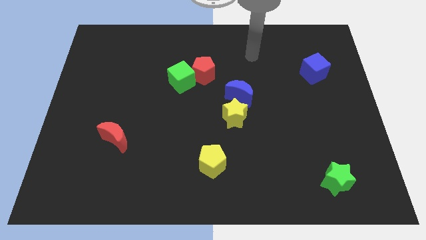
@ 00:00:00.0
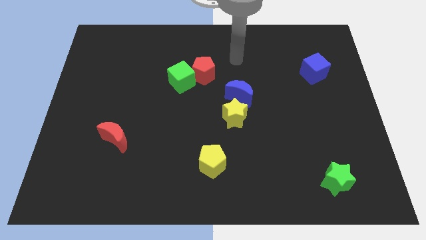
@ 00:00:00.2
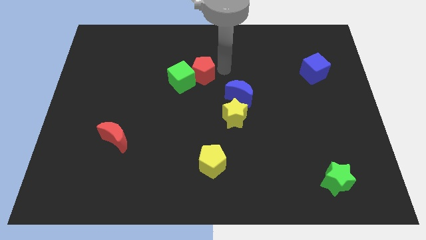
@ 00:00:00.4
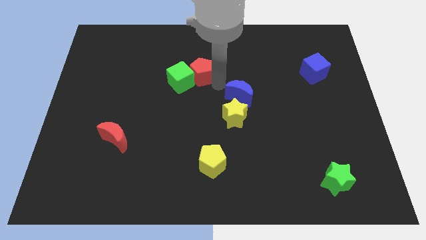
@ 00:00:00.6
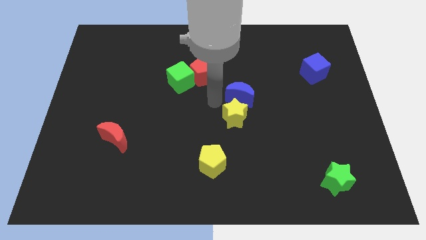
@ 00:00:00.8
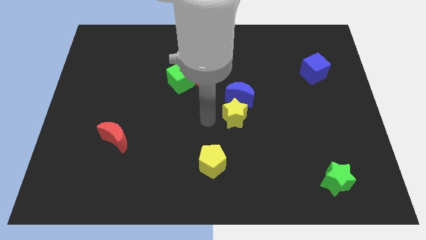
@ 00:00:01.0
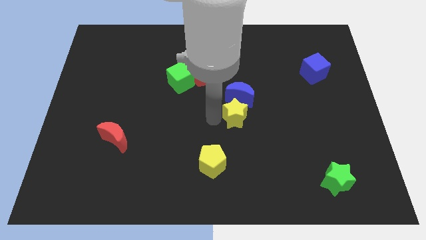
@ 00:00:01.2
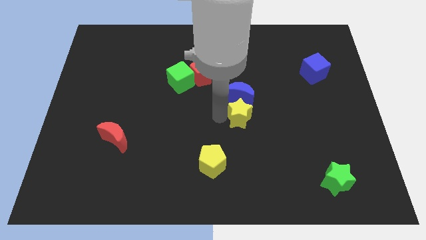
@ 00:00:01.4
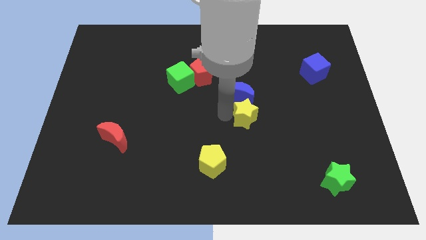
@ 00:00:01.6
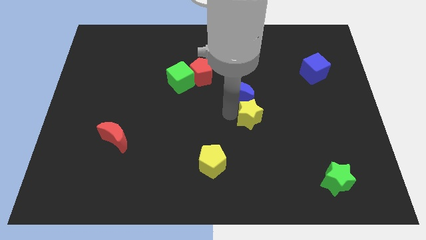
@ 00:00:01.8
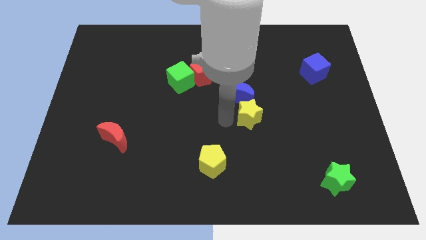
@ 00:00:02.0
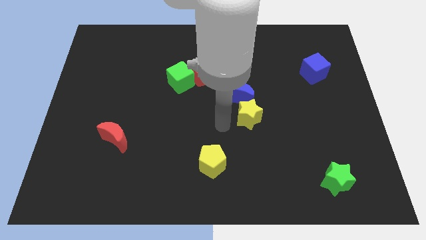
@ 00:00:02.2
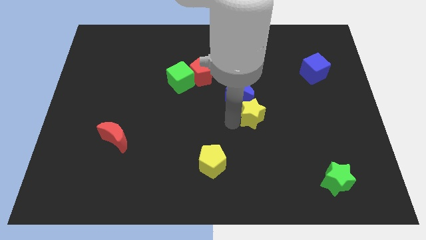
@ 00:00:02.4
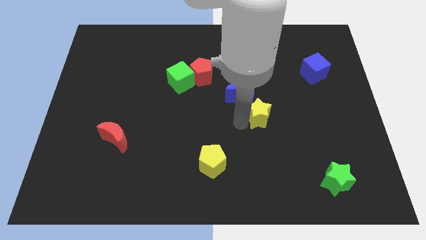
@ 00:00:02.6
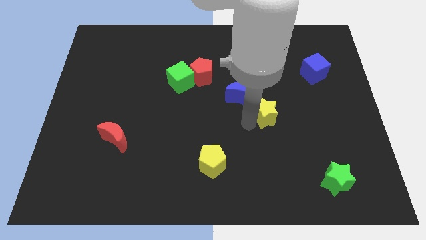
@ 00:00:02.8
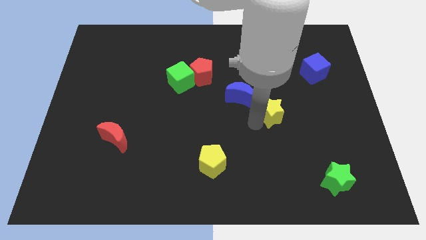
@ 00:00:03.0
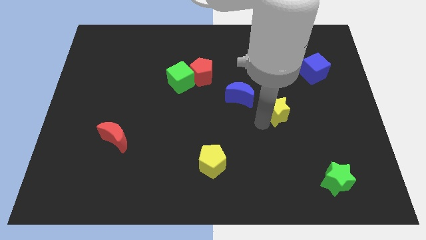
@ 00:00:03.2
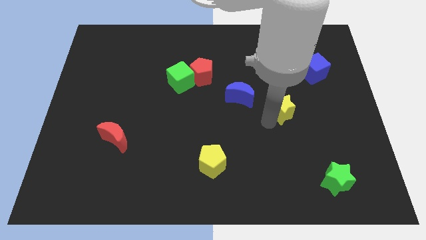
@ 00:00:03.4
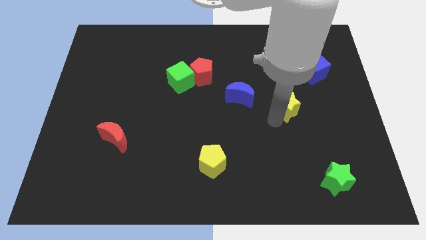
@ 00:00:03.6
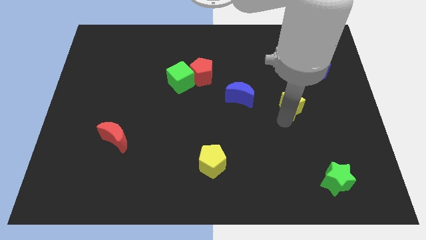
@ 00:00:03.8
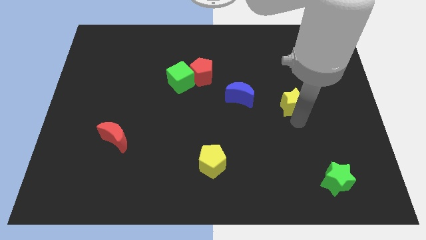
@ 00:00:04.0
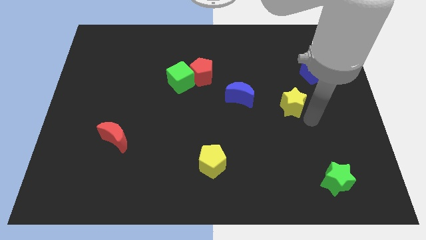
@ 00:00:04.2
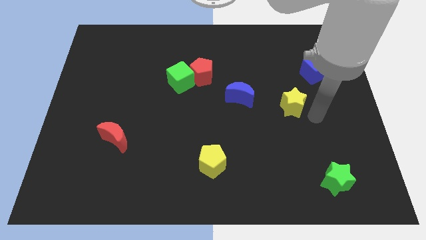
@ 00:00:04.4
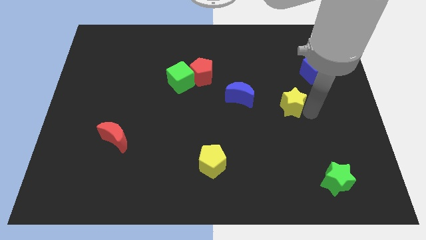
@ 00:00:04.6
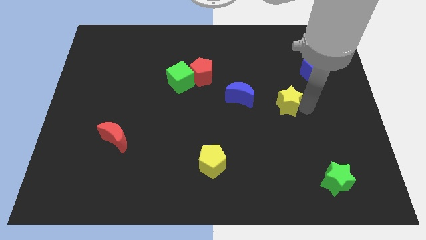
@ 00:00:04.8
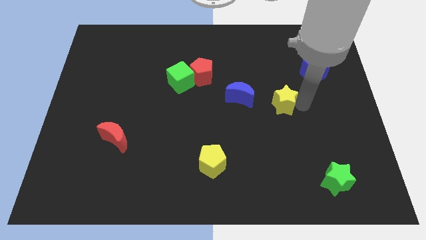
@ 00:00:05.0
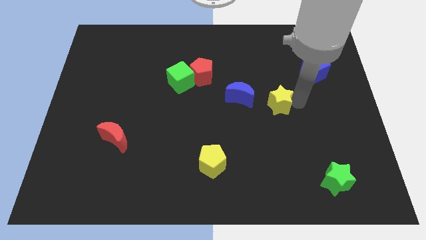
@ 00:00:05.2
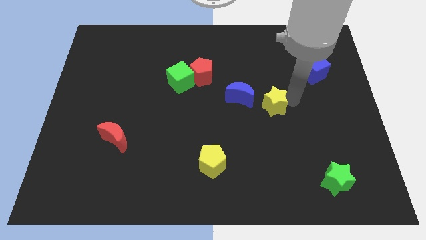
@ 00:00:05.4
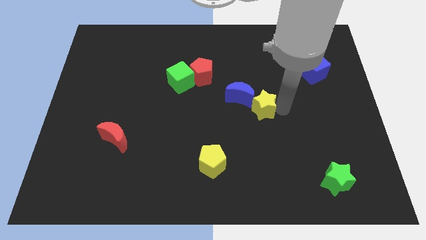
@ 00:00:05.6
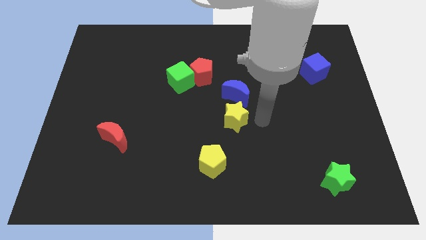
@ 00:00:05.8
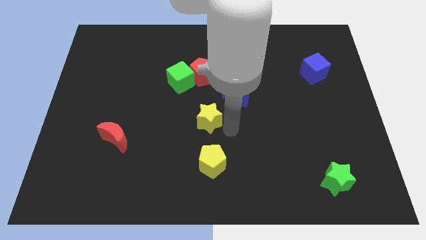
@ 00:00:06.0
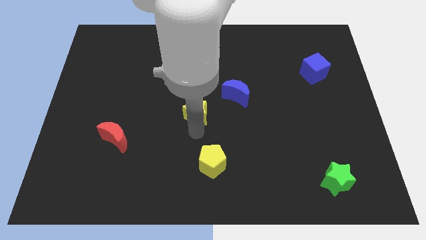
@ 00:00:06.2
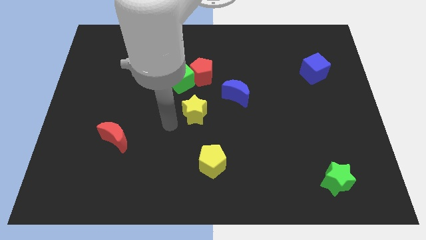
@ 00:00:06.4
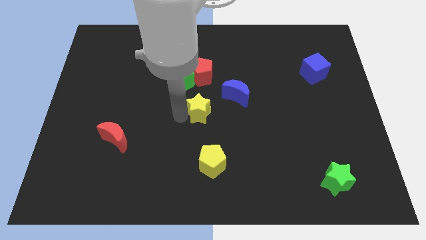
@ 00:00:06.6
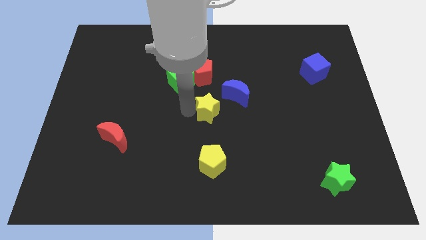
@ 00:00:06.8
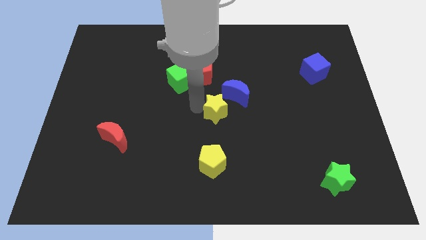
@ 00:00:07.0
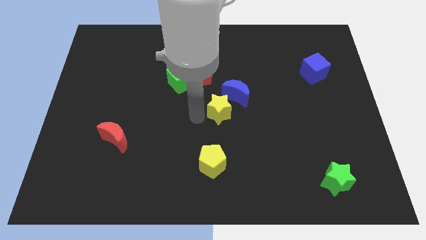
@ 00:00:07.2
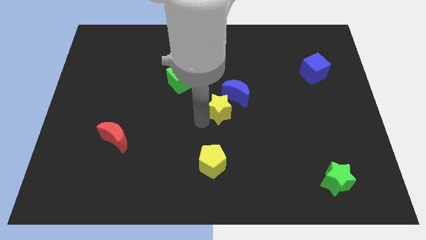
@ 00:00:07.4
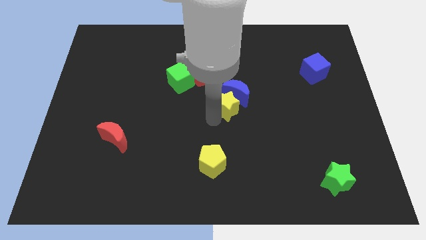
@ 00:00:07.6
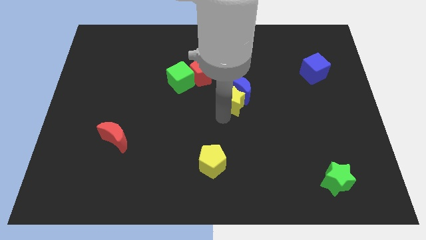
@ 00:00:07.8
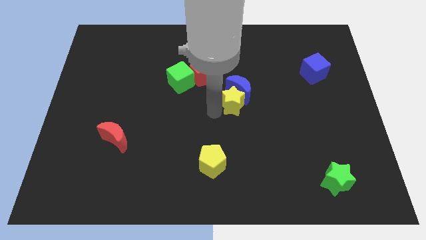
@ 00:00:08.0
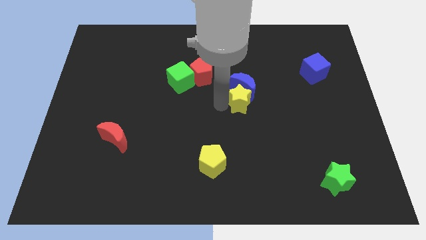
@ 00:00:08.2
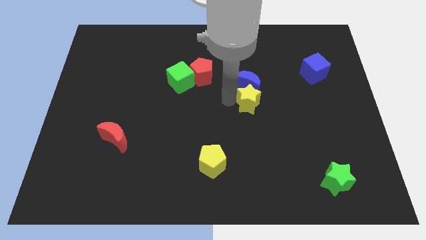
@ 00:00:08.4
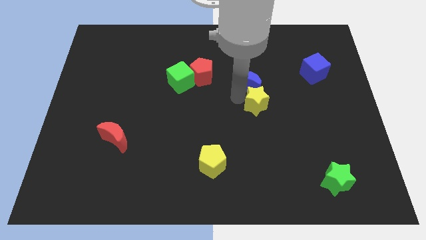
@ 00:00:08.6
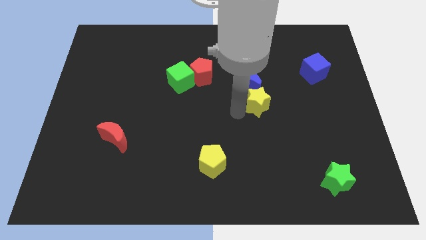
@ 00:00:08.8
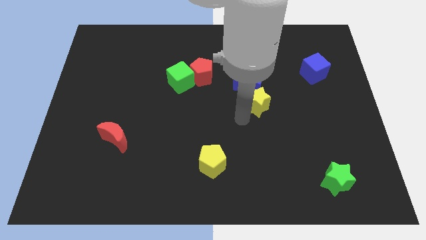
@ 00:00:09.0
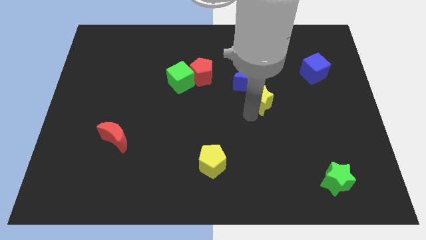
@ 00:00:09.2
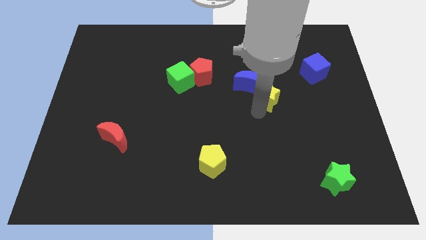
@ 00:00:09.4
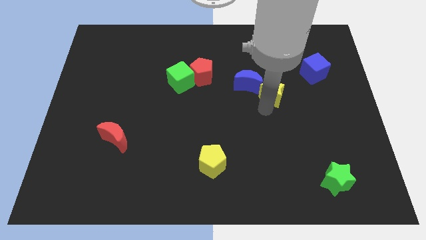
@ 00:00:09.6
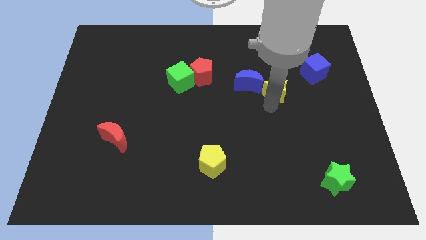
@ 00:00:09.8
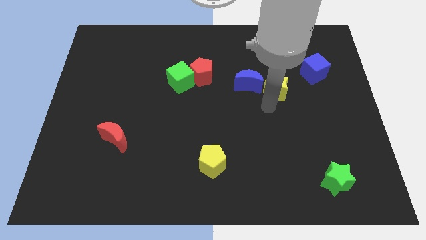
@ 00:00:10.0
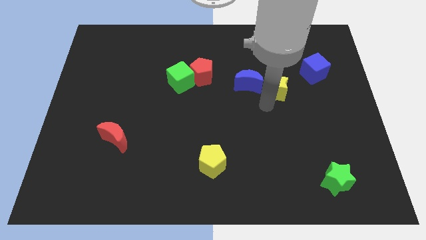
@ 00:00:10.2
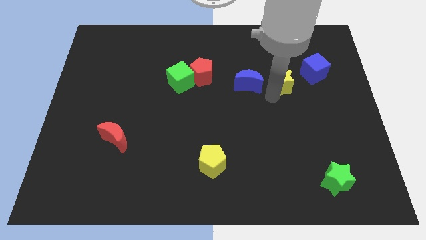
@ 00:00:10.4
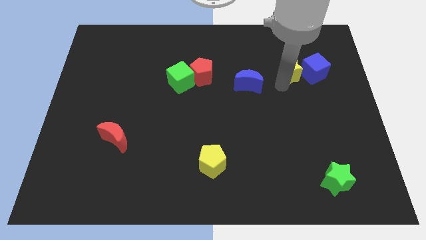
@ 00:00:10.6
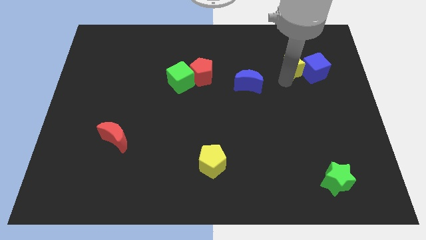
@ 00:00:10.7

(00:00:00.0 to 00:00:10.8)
push the yellow star to the top left of the blue cube

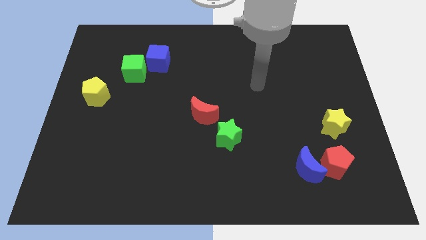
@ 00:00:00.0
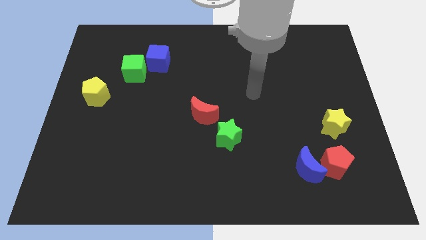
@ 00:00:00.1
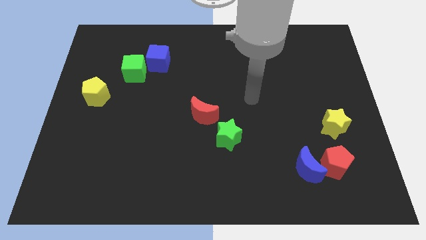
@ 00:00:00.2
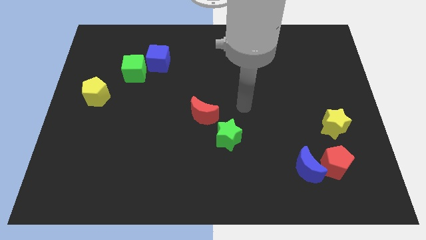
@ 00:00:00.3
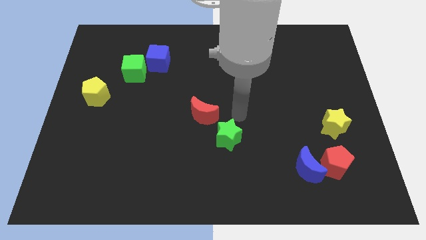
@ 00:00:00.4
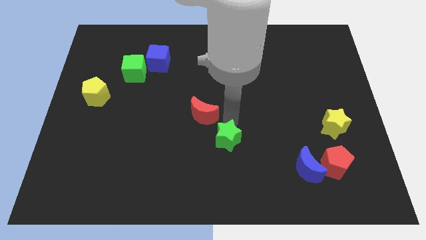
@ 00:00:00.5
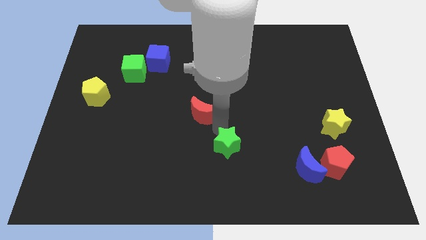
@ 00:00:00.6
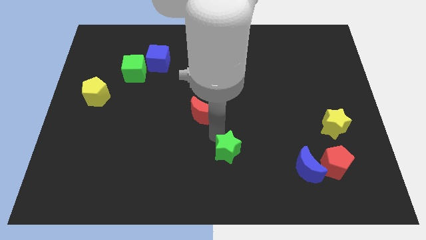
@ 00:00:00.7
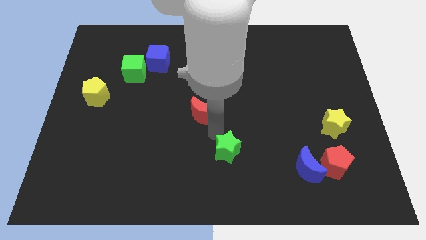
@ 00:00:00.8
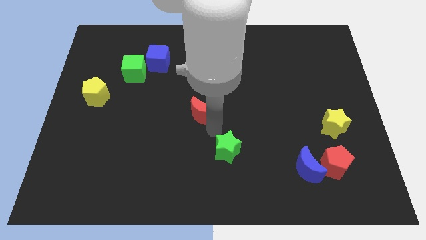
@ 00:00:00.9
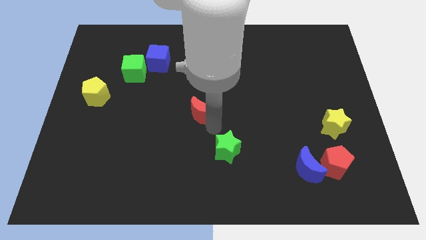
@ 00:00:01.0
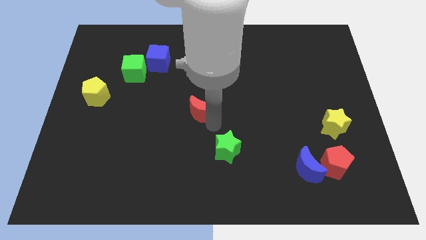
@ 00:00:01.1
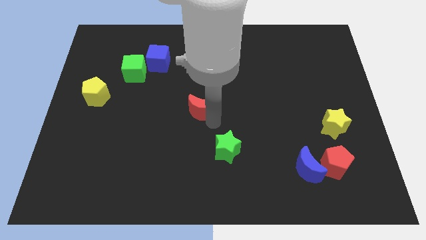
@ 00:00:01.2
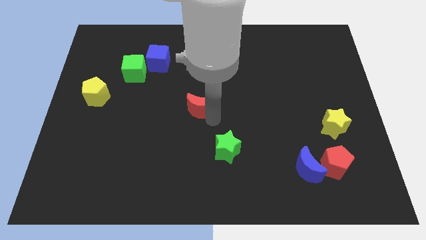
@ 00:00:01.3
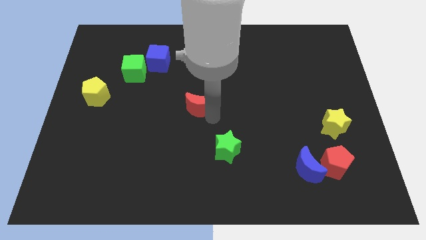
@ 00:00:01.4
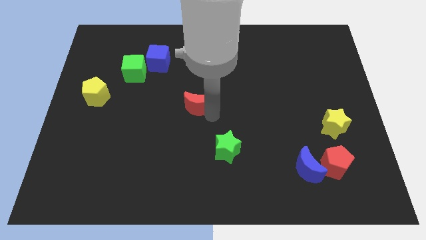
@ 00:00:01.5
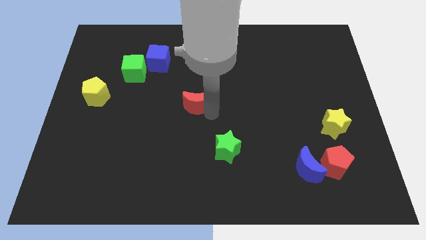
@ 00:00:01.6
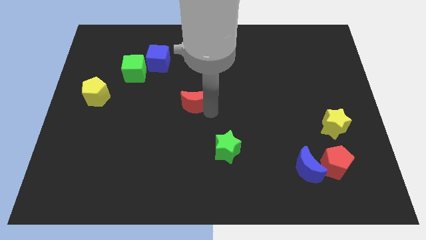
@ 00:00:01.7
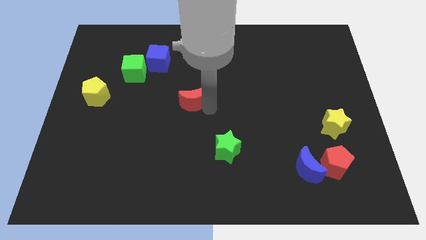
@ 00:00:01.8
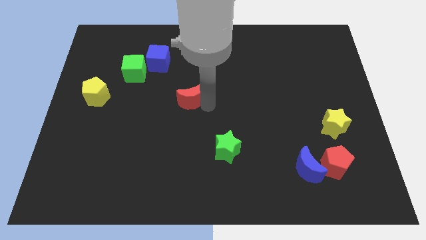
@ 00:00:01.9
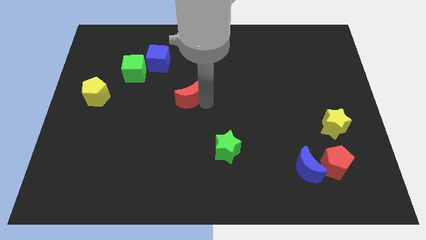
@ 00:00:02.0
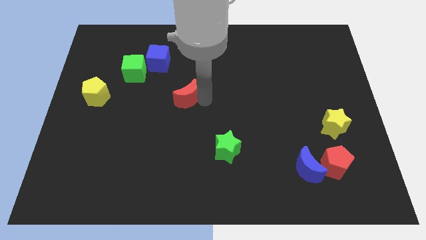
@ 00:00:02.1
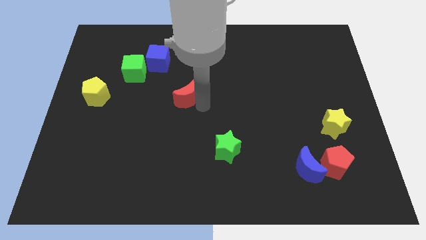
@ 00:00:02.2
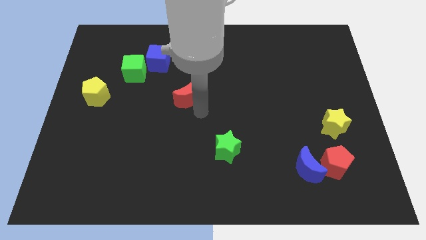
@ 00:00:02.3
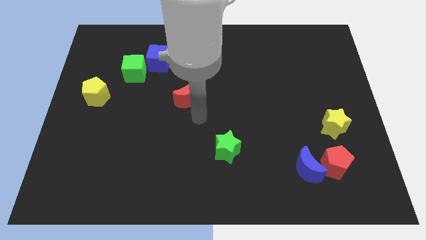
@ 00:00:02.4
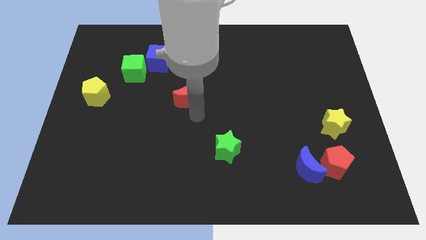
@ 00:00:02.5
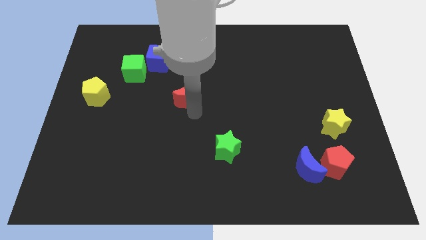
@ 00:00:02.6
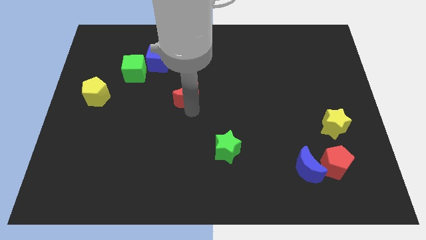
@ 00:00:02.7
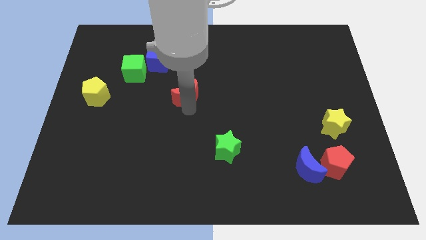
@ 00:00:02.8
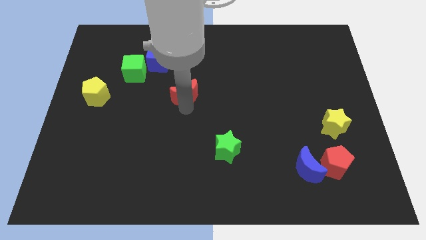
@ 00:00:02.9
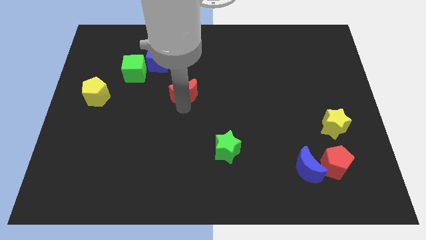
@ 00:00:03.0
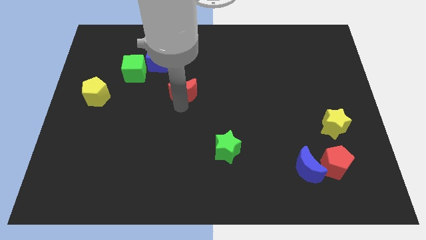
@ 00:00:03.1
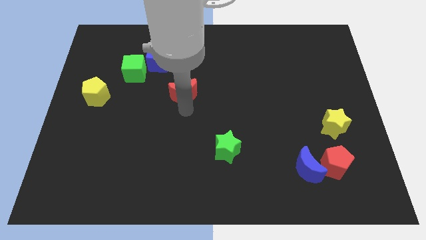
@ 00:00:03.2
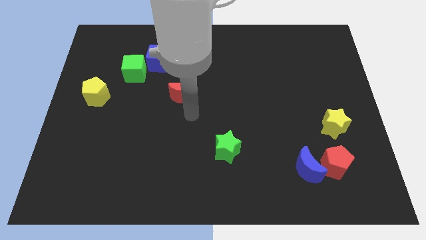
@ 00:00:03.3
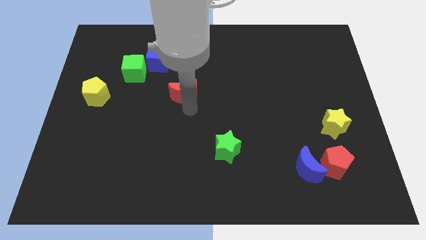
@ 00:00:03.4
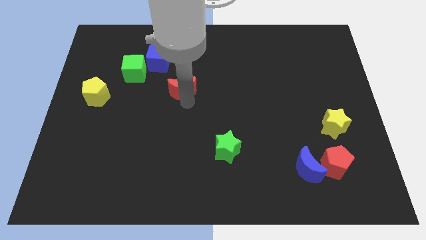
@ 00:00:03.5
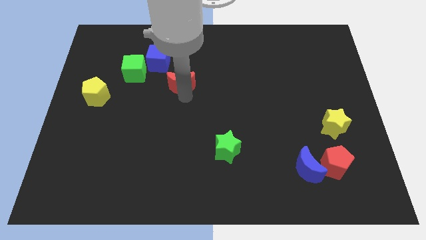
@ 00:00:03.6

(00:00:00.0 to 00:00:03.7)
slide the red moon right of the green cube
